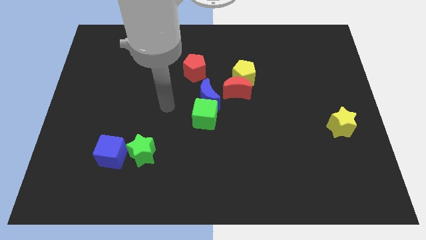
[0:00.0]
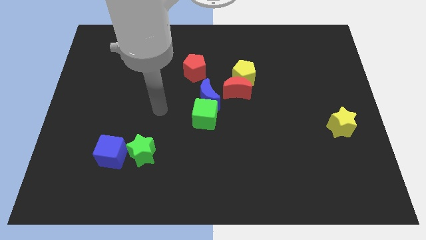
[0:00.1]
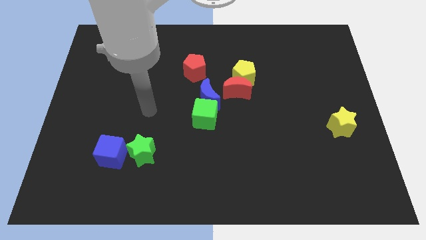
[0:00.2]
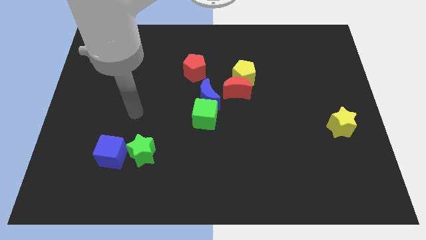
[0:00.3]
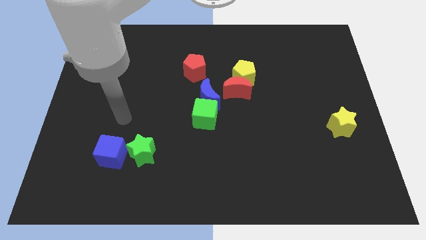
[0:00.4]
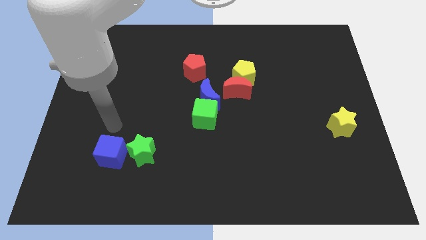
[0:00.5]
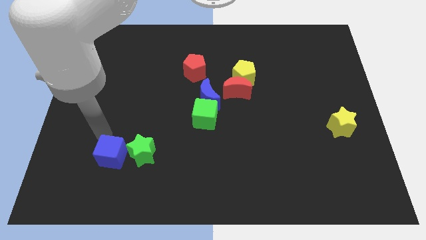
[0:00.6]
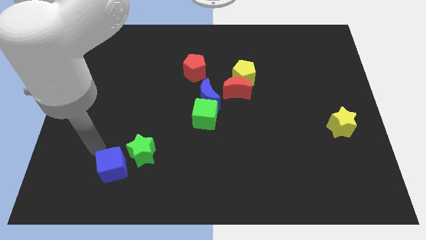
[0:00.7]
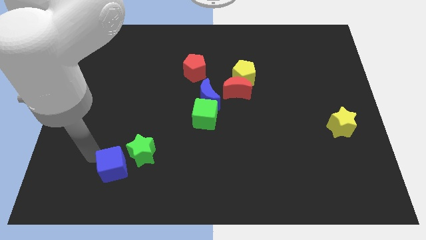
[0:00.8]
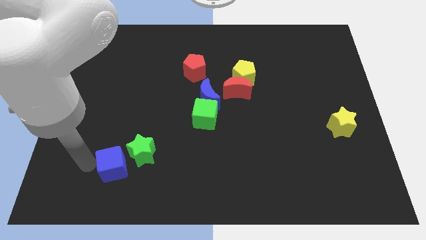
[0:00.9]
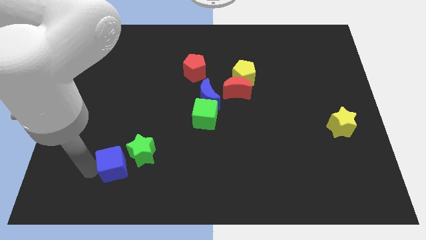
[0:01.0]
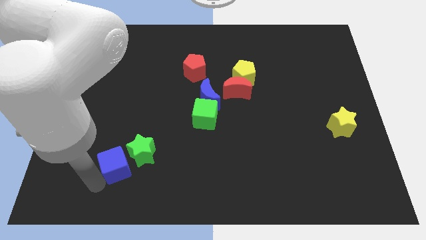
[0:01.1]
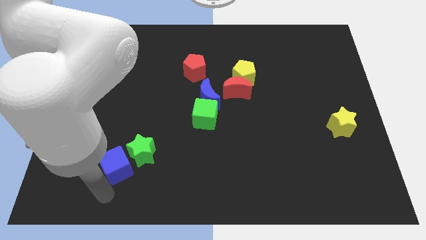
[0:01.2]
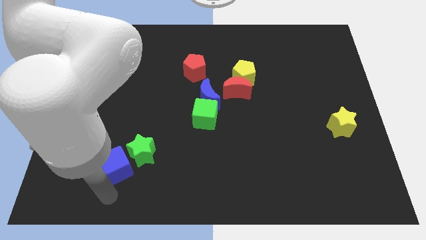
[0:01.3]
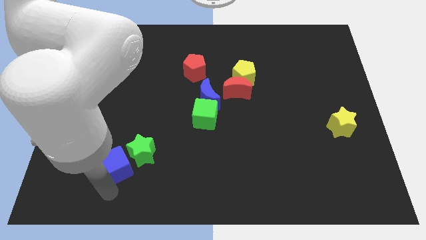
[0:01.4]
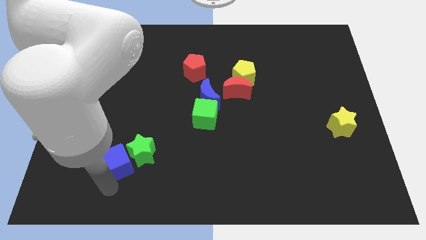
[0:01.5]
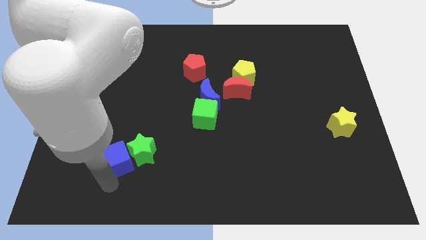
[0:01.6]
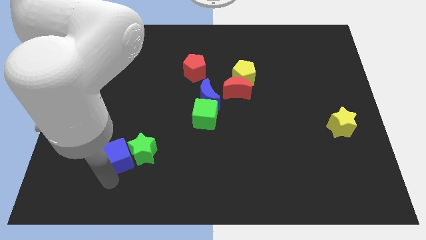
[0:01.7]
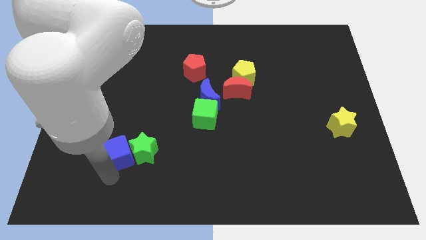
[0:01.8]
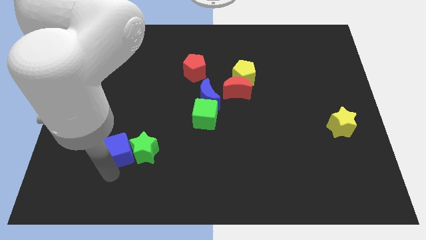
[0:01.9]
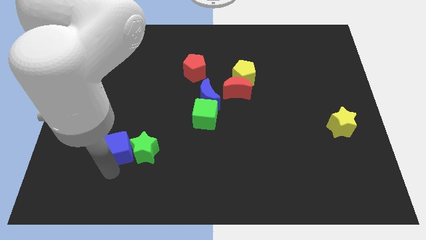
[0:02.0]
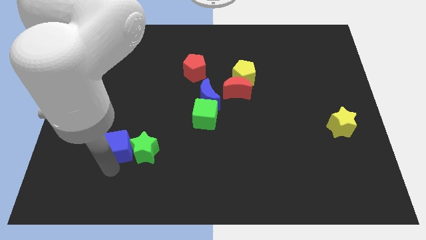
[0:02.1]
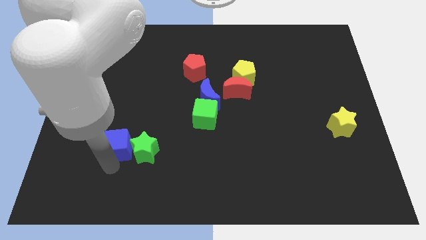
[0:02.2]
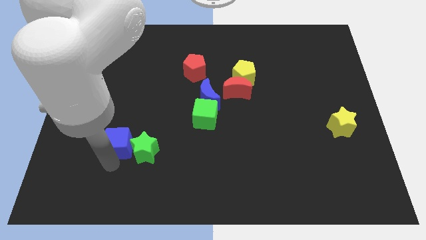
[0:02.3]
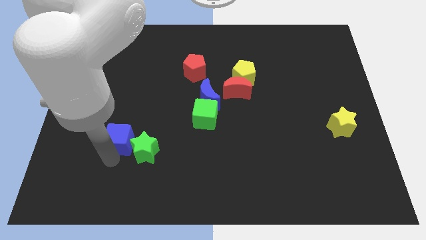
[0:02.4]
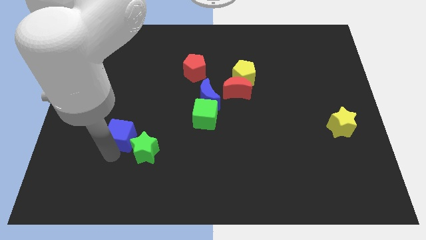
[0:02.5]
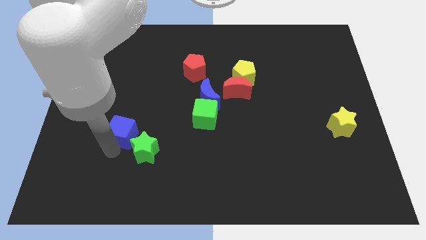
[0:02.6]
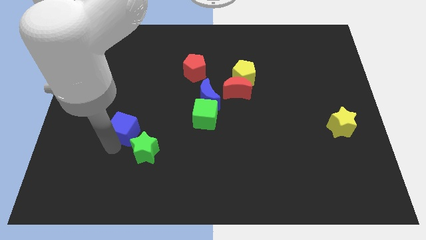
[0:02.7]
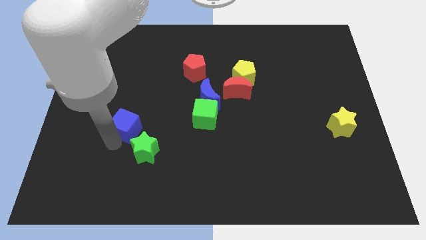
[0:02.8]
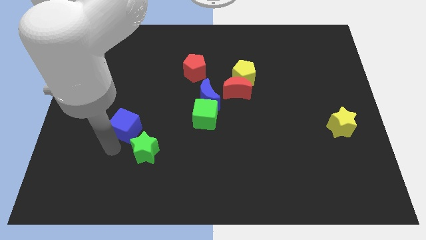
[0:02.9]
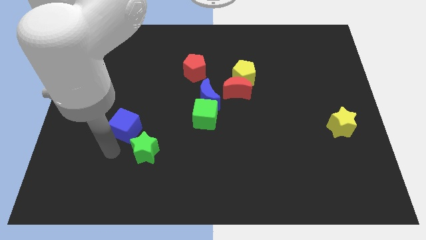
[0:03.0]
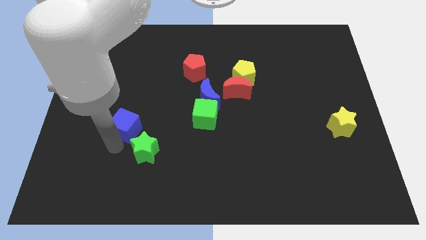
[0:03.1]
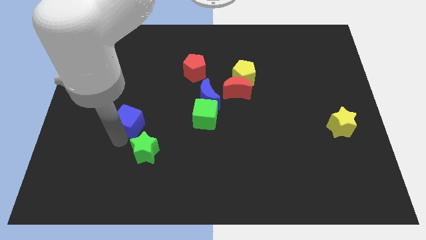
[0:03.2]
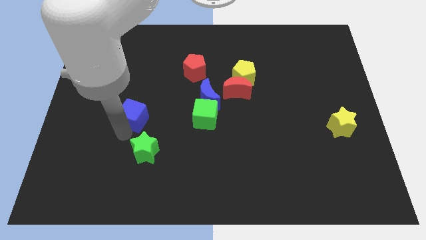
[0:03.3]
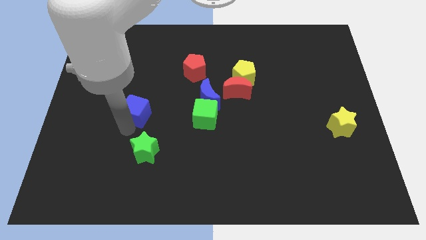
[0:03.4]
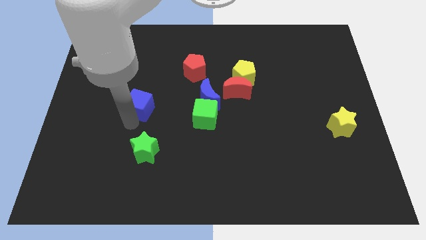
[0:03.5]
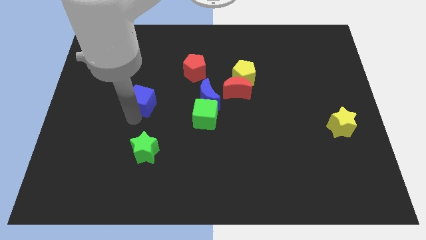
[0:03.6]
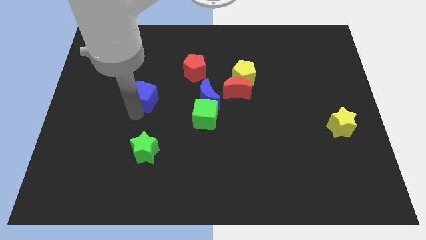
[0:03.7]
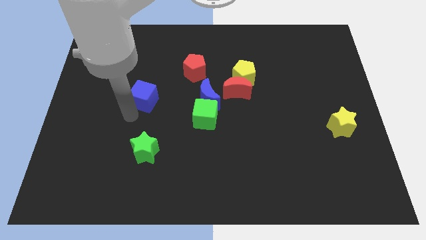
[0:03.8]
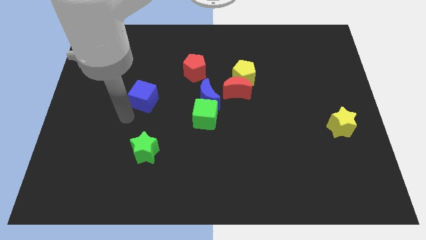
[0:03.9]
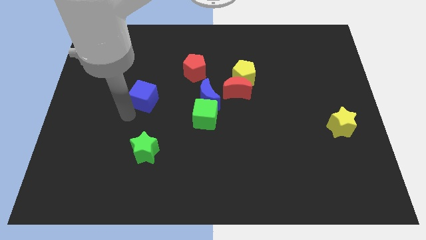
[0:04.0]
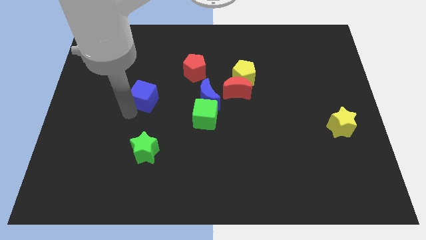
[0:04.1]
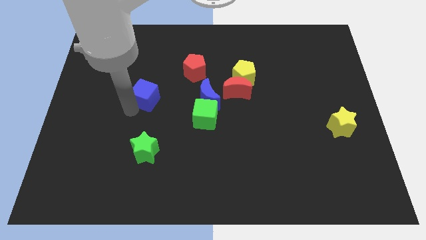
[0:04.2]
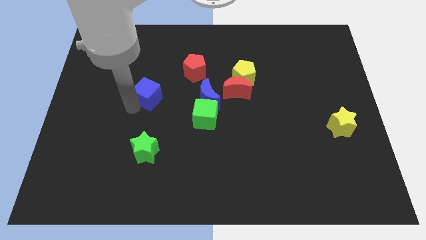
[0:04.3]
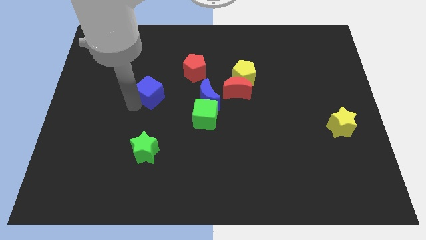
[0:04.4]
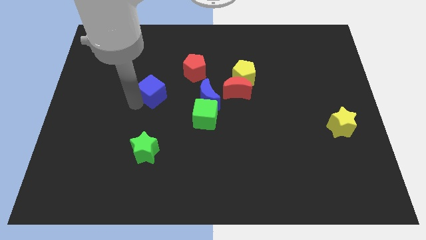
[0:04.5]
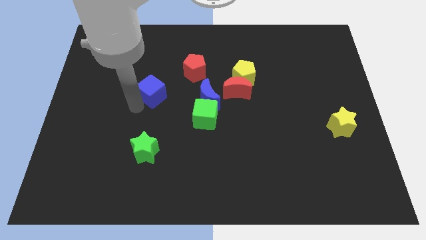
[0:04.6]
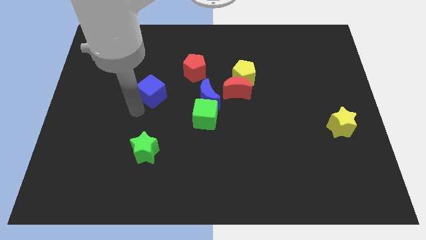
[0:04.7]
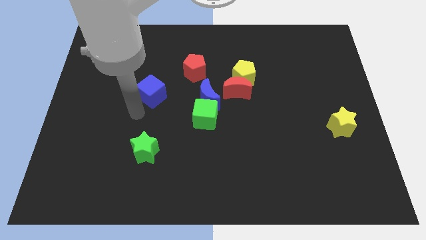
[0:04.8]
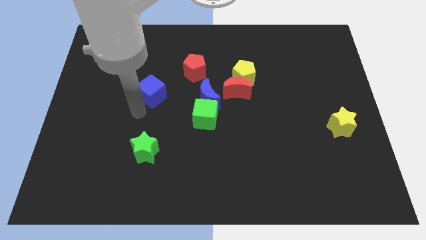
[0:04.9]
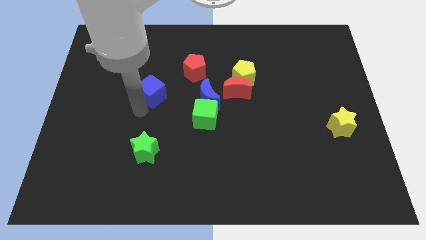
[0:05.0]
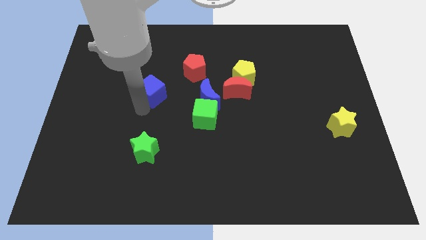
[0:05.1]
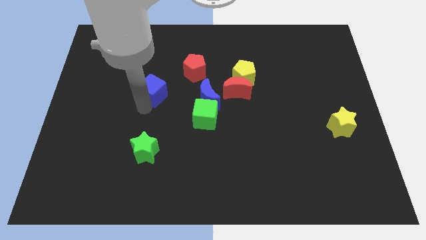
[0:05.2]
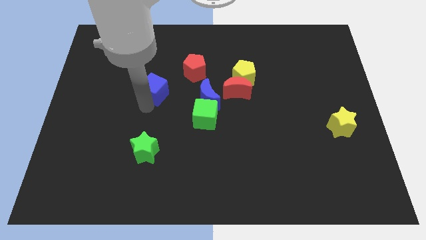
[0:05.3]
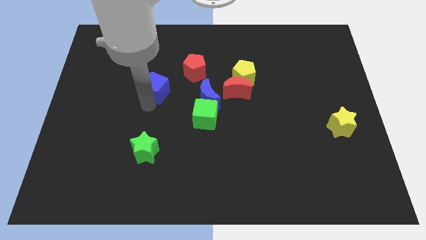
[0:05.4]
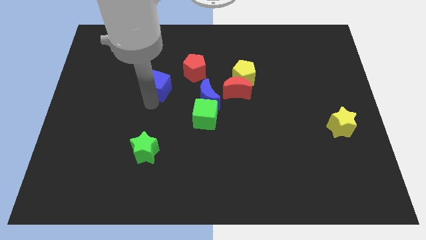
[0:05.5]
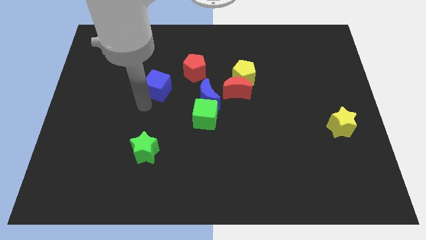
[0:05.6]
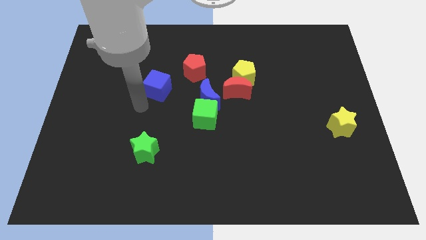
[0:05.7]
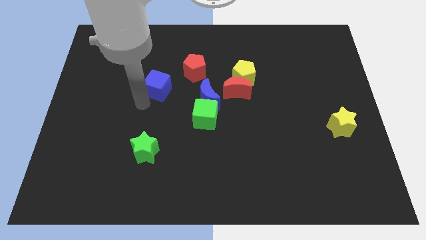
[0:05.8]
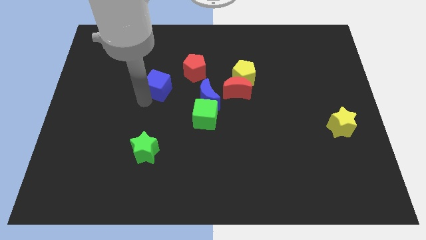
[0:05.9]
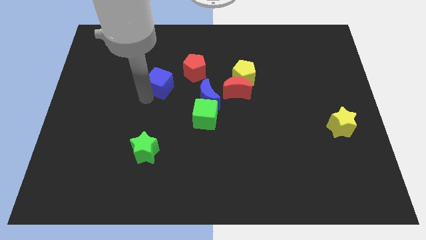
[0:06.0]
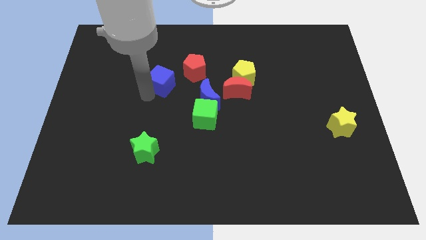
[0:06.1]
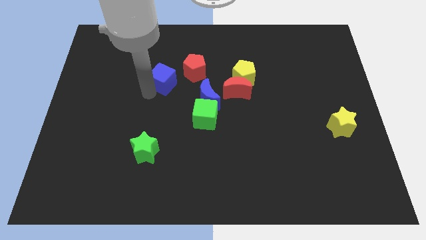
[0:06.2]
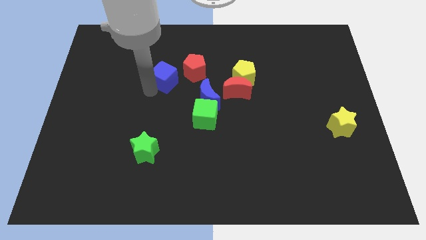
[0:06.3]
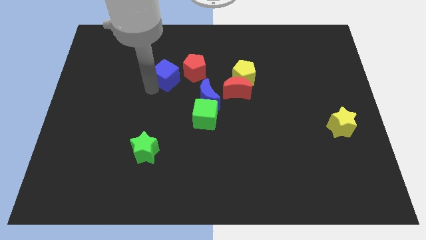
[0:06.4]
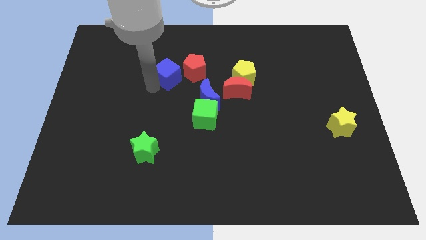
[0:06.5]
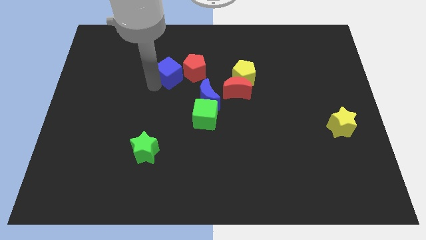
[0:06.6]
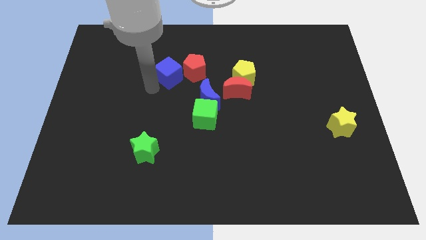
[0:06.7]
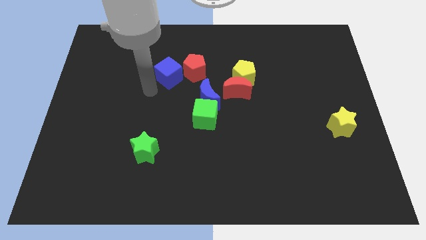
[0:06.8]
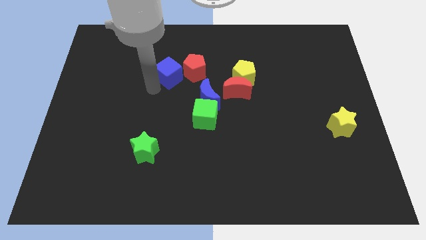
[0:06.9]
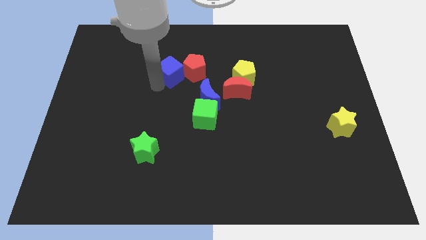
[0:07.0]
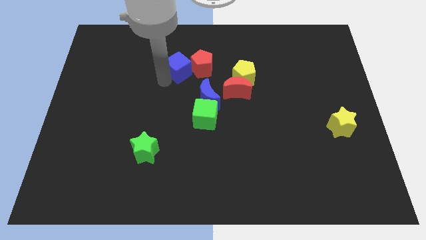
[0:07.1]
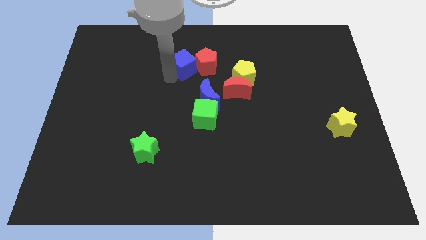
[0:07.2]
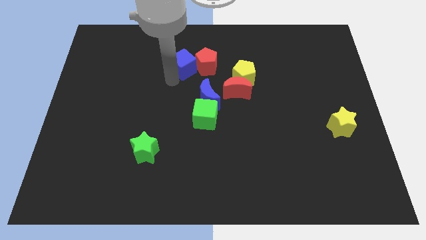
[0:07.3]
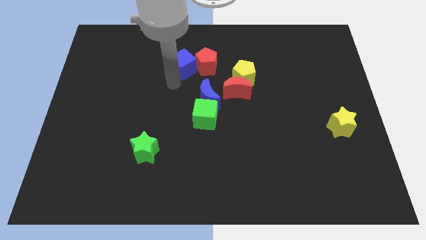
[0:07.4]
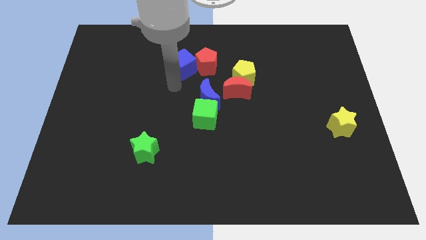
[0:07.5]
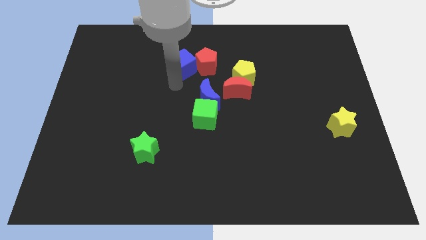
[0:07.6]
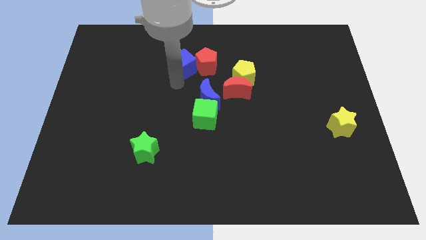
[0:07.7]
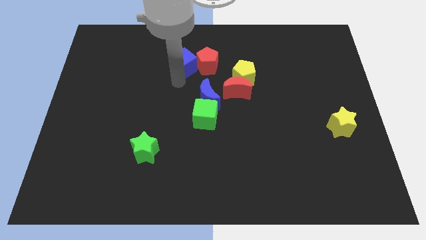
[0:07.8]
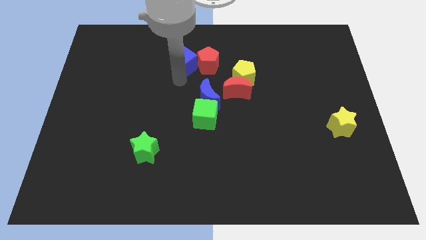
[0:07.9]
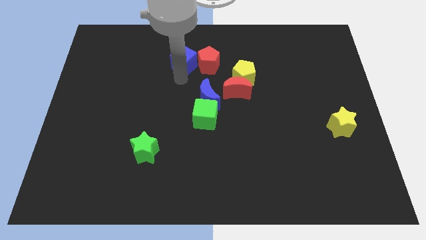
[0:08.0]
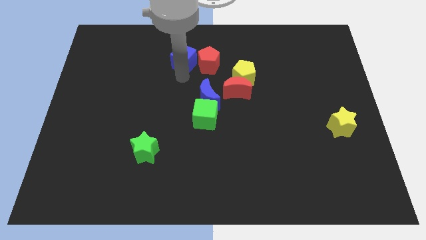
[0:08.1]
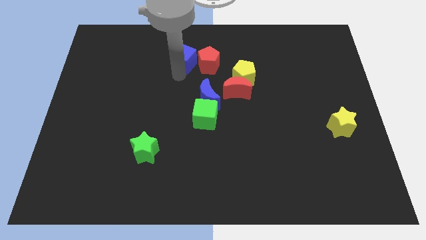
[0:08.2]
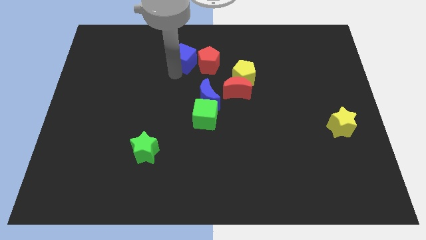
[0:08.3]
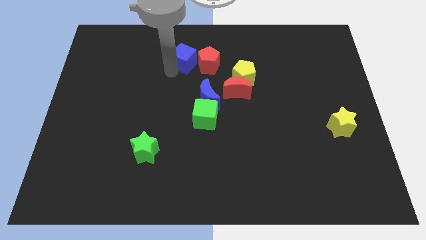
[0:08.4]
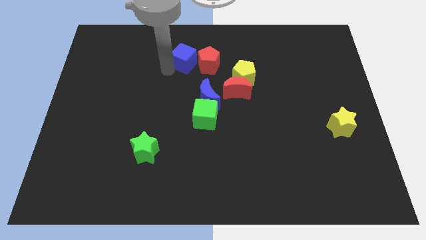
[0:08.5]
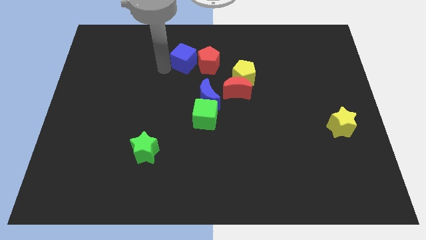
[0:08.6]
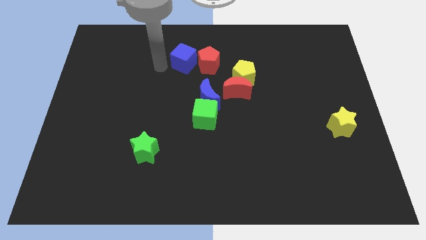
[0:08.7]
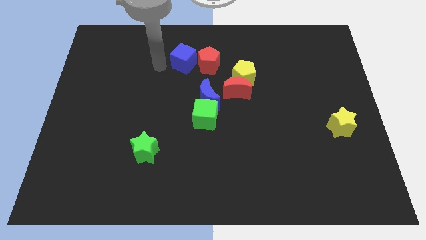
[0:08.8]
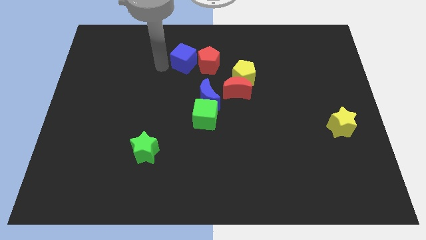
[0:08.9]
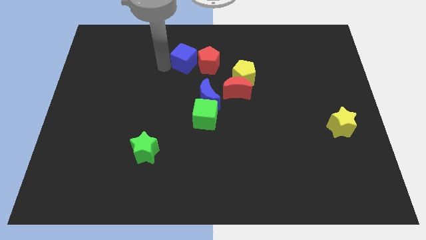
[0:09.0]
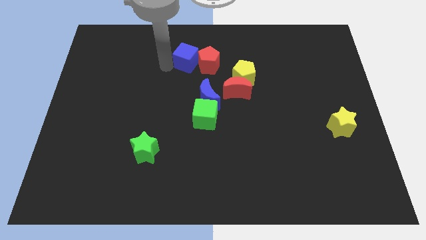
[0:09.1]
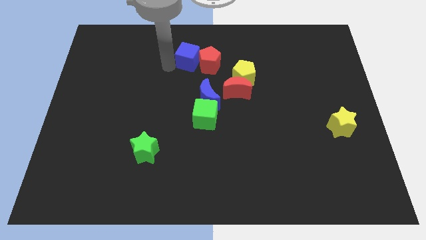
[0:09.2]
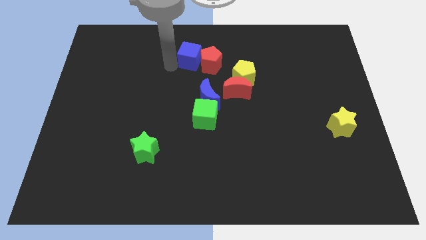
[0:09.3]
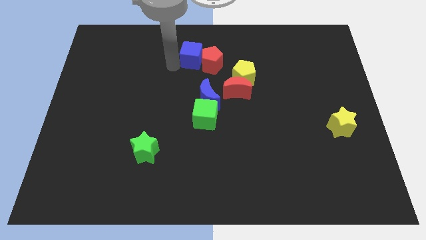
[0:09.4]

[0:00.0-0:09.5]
slide the blue cube to the top of the blue moon
